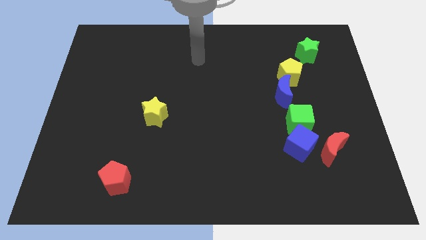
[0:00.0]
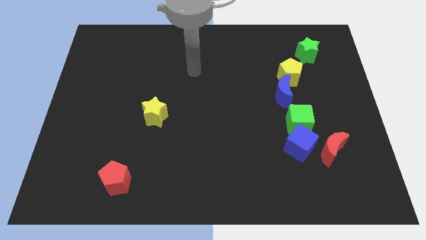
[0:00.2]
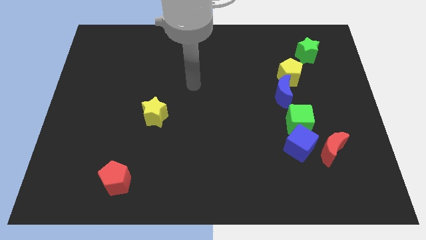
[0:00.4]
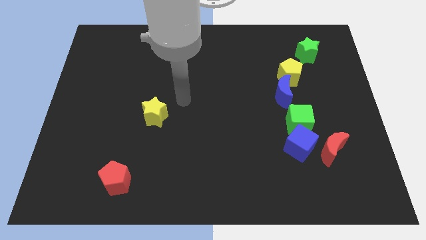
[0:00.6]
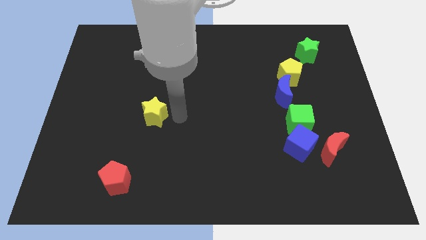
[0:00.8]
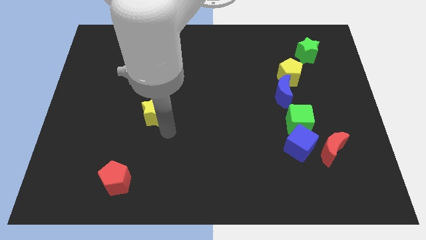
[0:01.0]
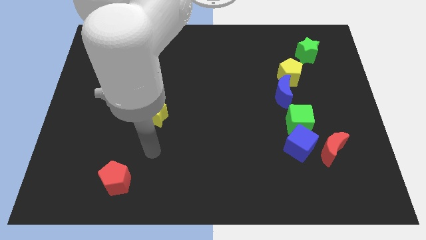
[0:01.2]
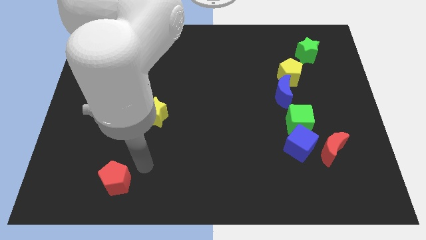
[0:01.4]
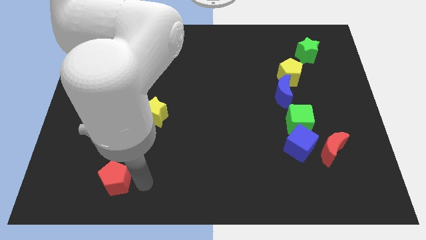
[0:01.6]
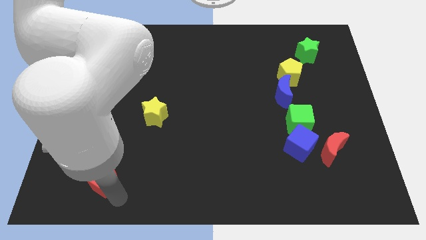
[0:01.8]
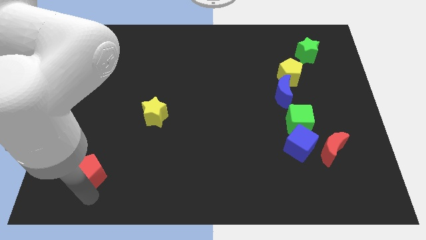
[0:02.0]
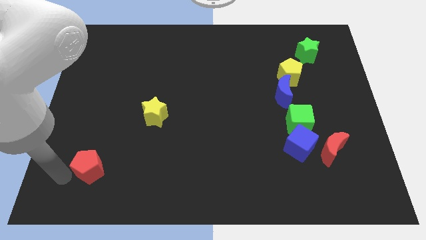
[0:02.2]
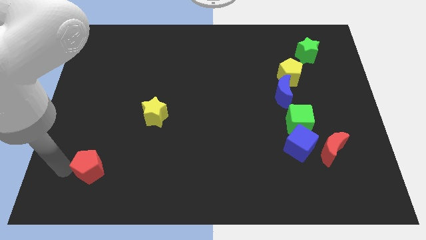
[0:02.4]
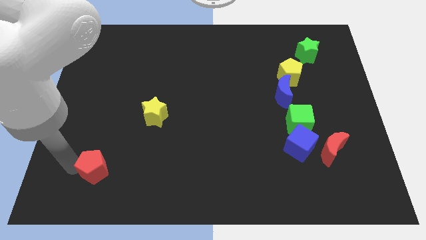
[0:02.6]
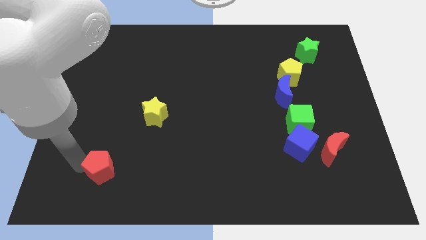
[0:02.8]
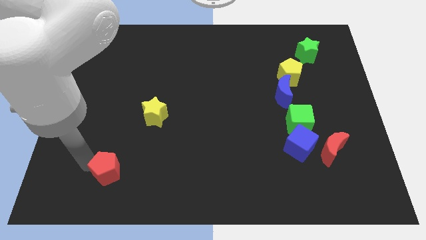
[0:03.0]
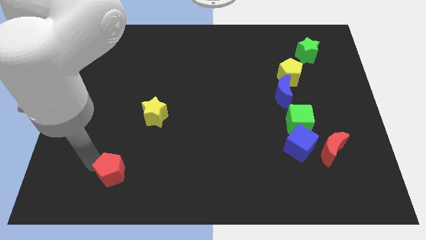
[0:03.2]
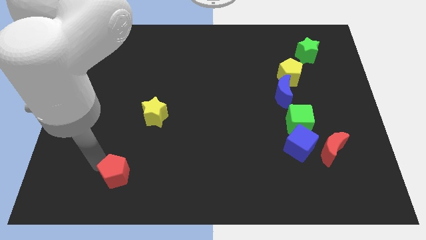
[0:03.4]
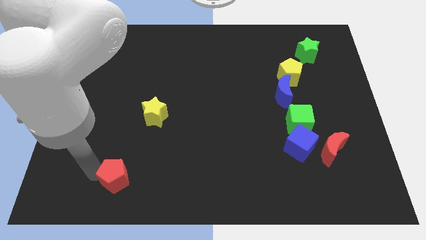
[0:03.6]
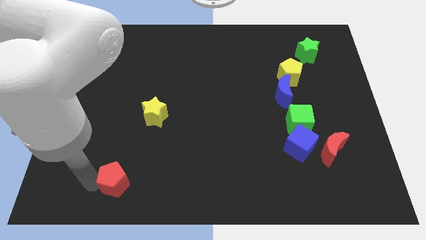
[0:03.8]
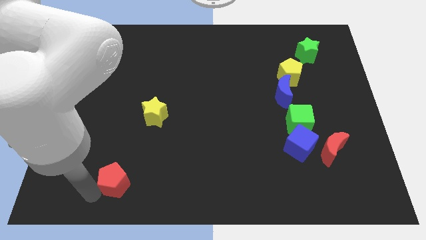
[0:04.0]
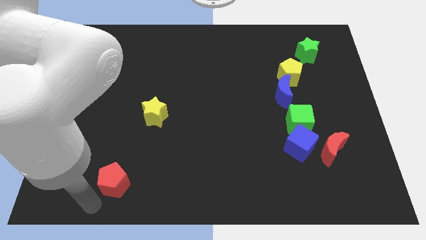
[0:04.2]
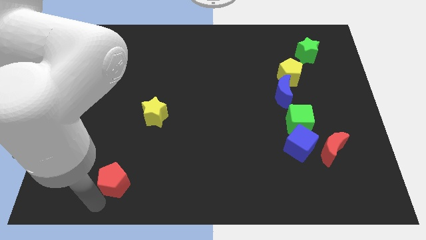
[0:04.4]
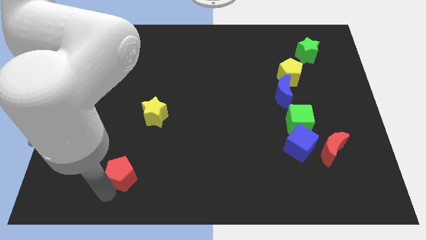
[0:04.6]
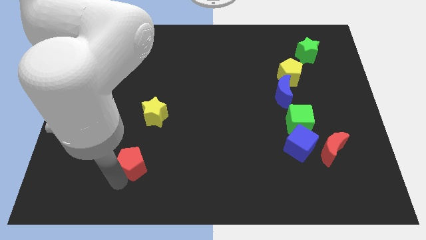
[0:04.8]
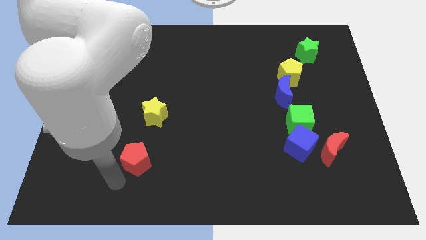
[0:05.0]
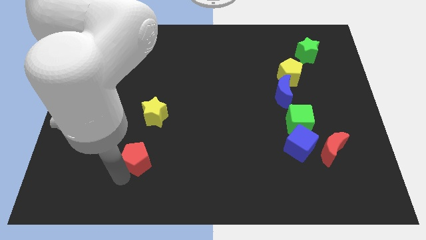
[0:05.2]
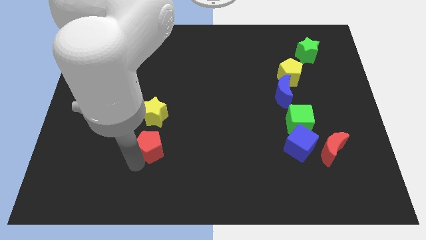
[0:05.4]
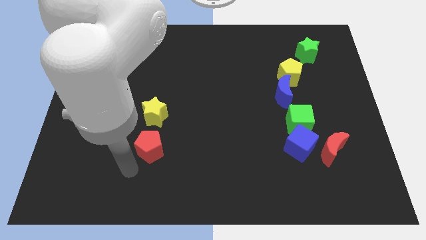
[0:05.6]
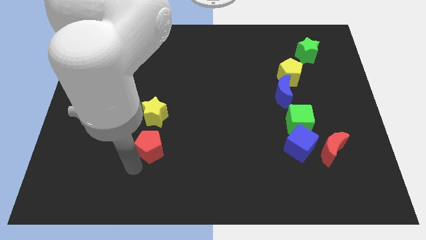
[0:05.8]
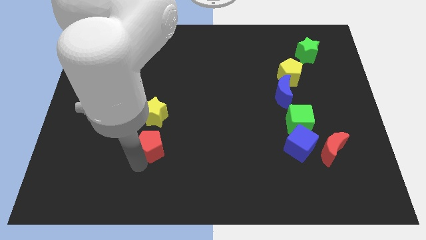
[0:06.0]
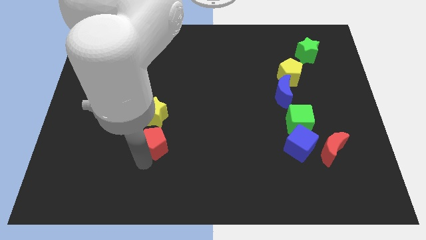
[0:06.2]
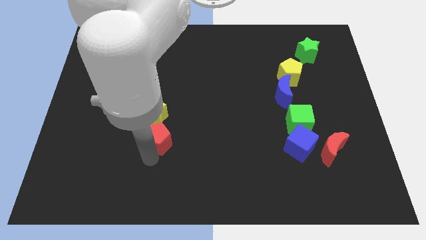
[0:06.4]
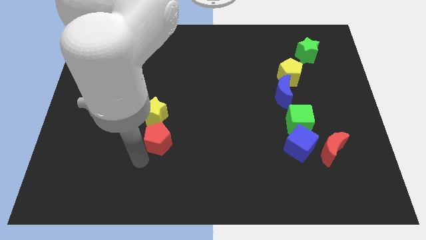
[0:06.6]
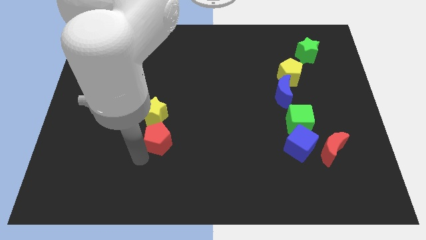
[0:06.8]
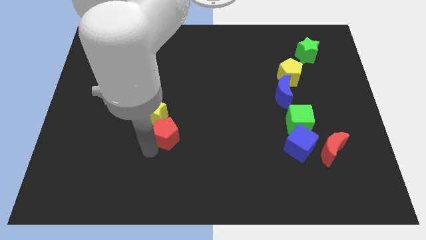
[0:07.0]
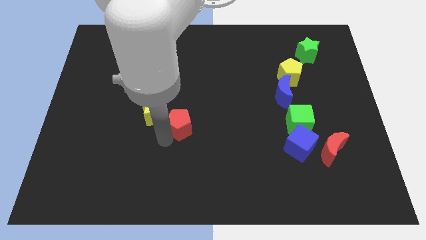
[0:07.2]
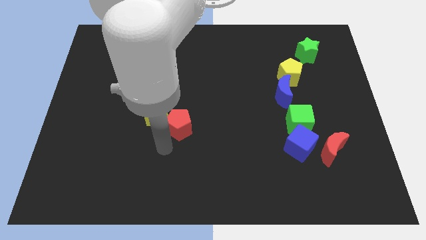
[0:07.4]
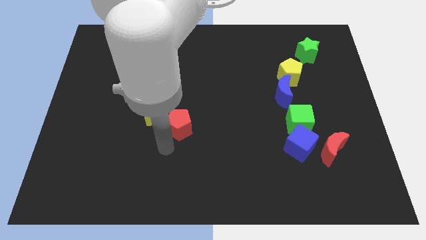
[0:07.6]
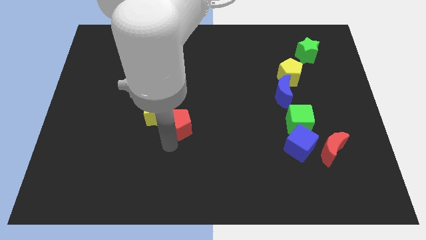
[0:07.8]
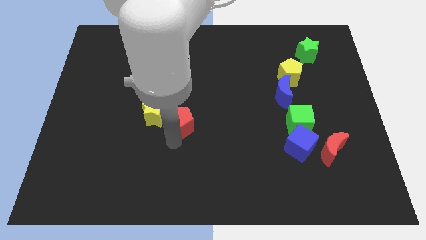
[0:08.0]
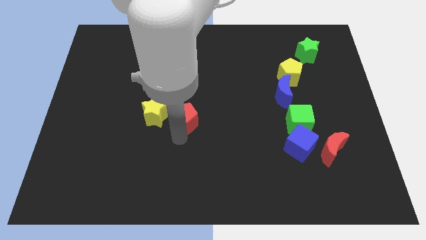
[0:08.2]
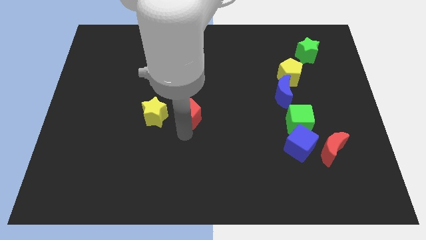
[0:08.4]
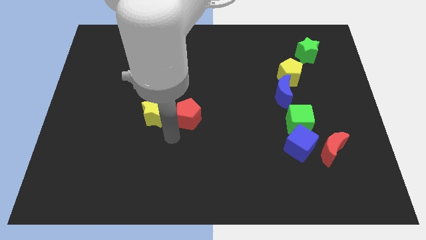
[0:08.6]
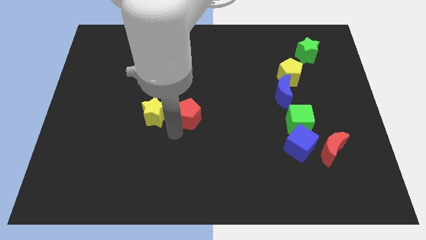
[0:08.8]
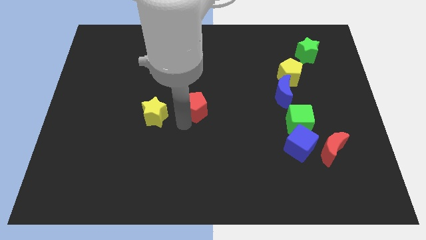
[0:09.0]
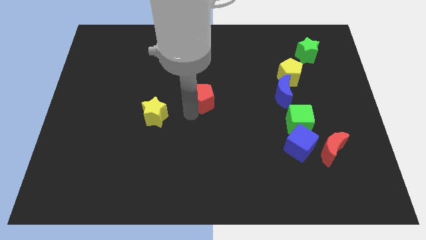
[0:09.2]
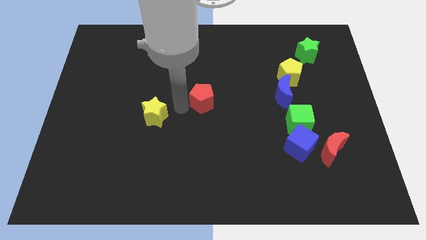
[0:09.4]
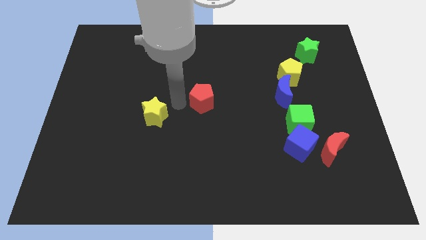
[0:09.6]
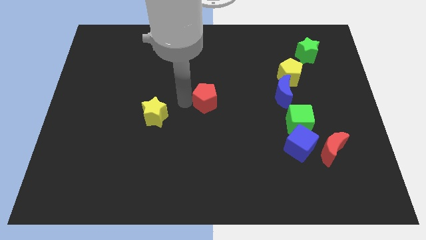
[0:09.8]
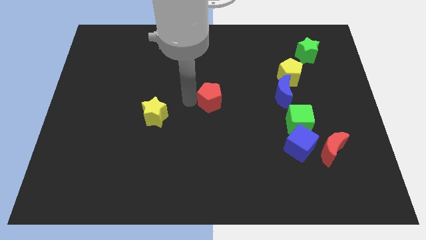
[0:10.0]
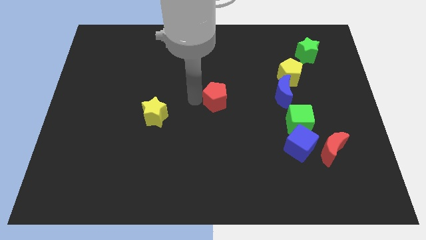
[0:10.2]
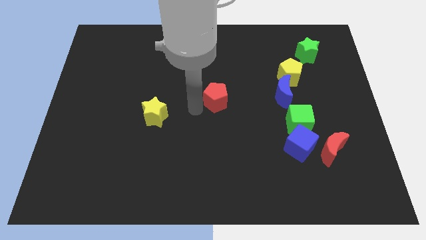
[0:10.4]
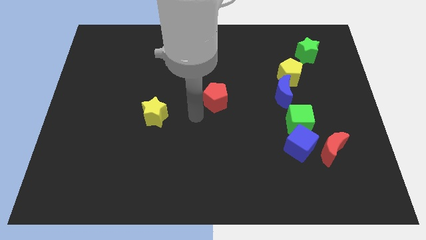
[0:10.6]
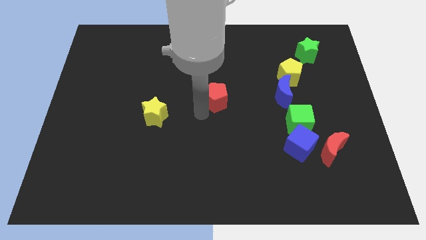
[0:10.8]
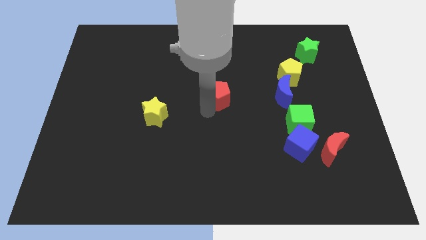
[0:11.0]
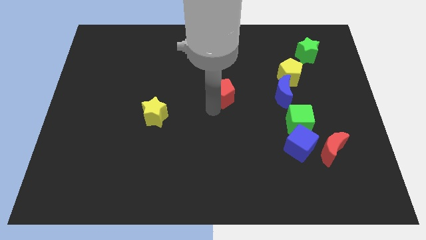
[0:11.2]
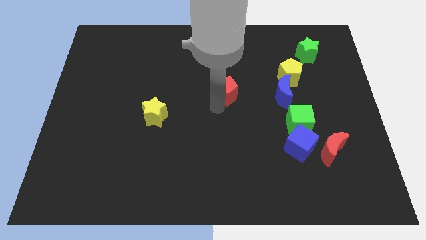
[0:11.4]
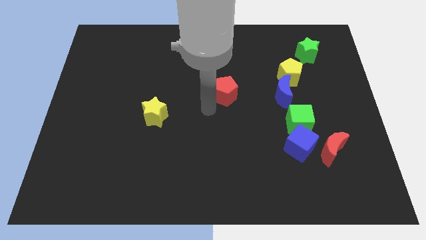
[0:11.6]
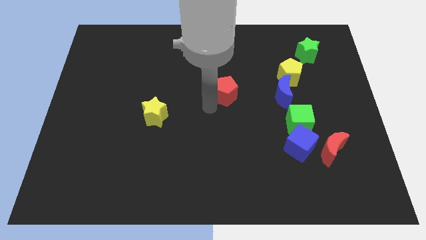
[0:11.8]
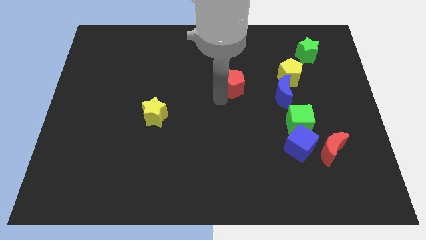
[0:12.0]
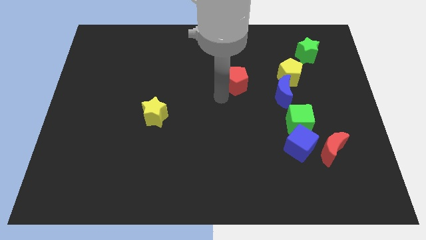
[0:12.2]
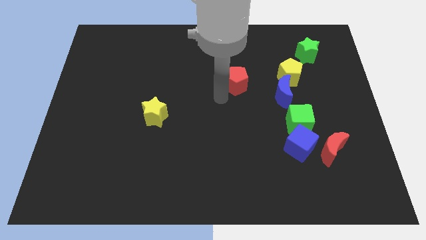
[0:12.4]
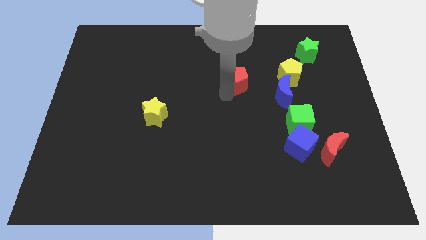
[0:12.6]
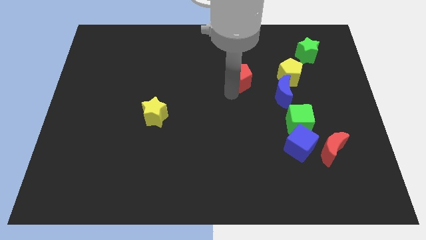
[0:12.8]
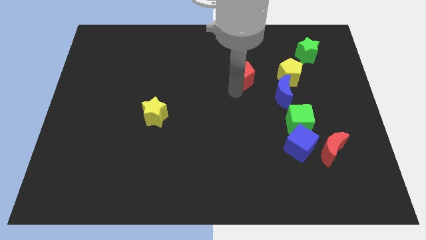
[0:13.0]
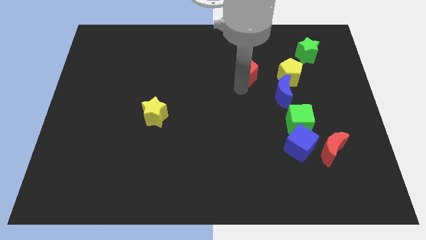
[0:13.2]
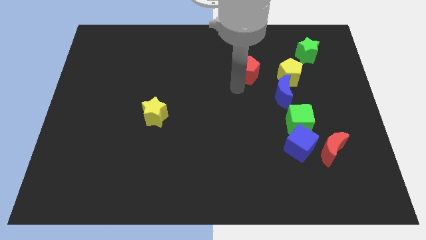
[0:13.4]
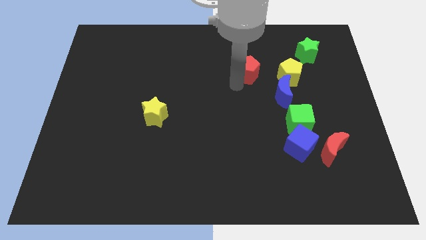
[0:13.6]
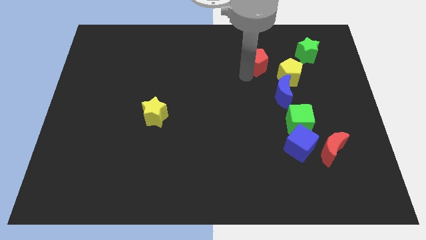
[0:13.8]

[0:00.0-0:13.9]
push the red pentagon left of the green star
